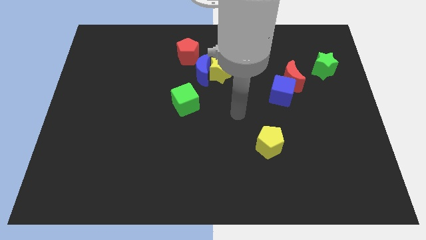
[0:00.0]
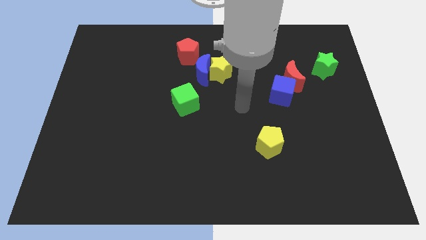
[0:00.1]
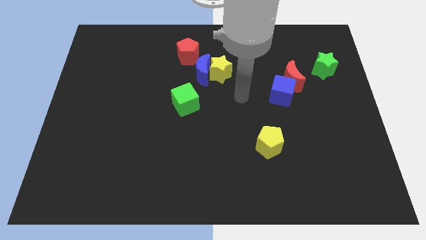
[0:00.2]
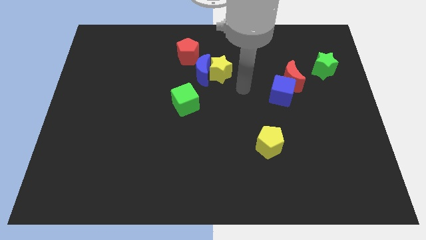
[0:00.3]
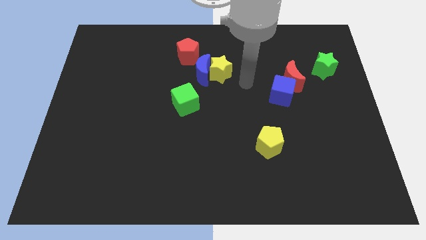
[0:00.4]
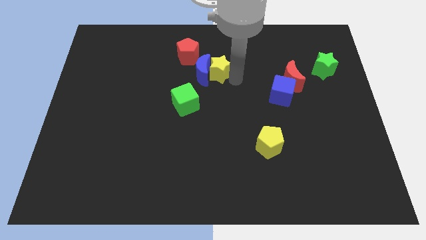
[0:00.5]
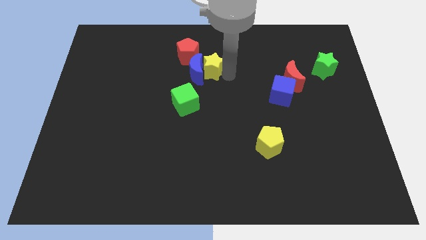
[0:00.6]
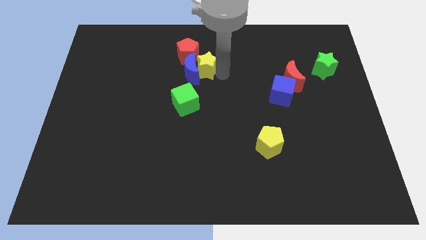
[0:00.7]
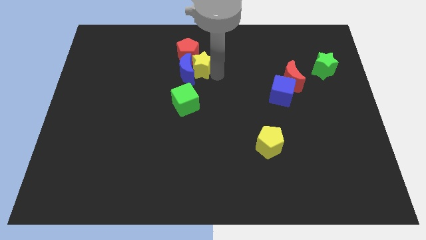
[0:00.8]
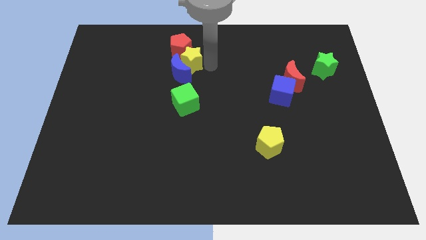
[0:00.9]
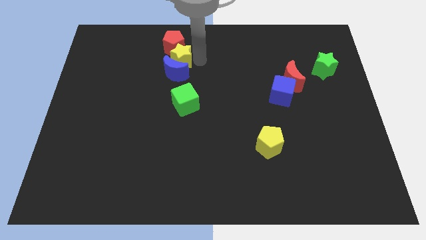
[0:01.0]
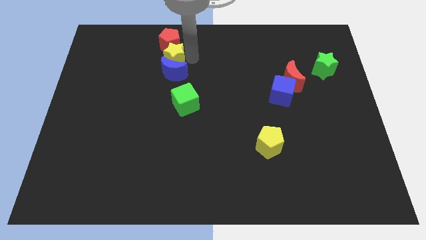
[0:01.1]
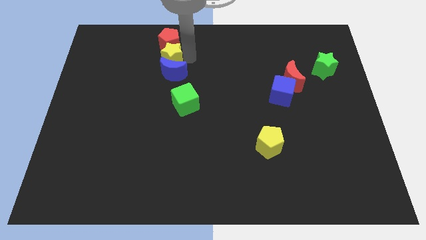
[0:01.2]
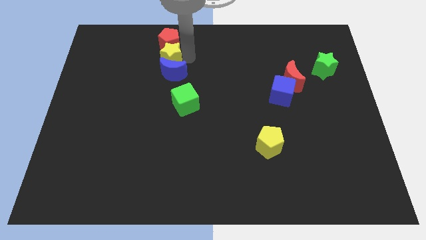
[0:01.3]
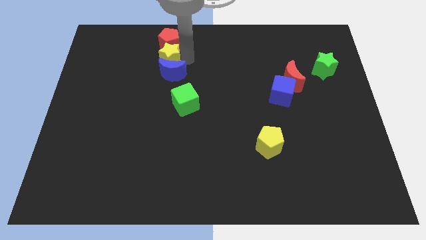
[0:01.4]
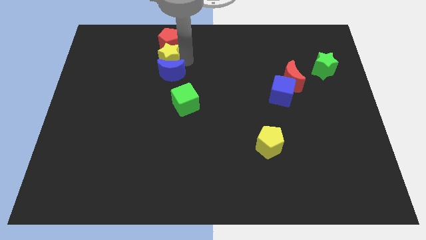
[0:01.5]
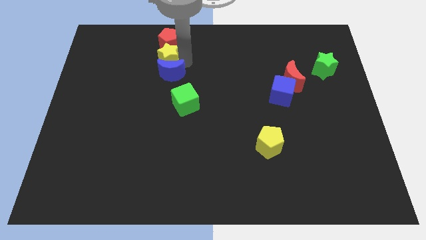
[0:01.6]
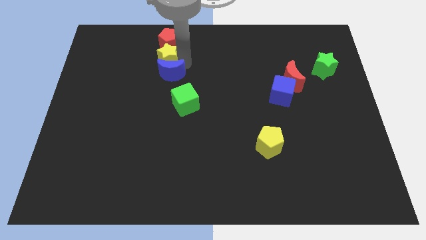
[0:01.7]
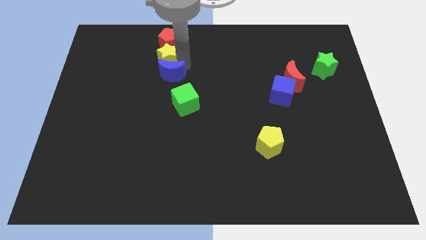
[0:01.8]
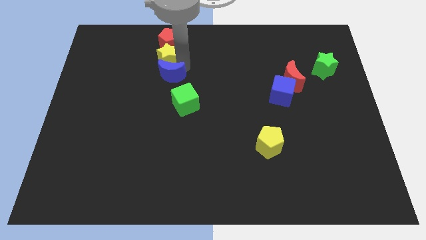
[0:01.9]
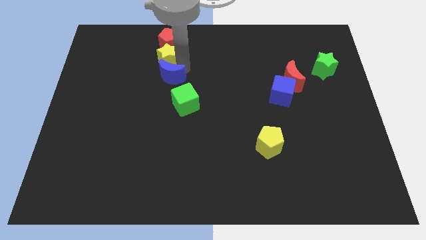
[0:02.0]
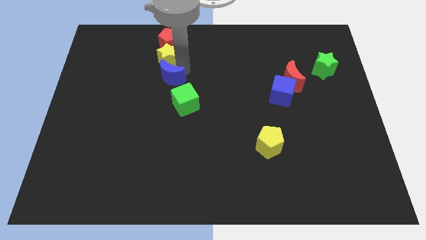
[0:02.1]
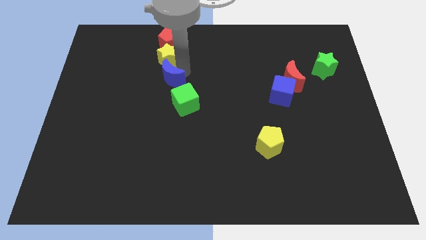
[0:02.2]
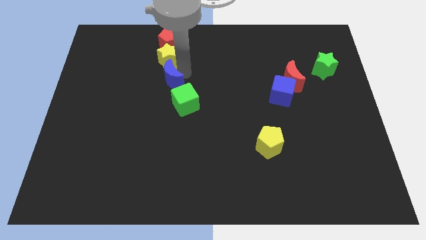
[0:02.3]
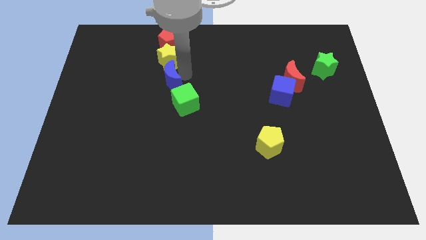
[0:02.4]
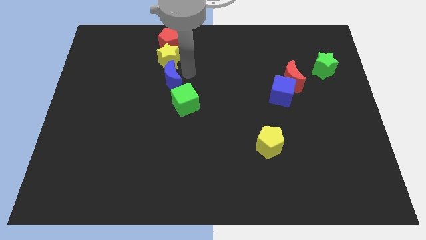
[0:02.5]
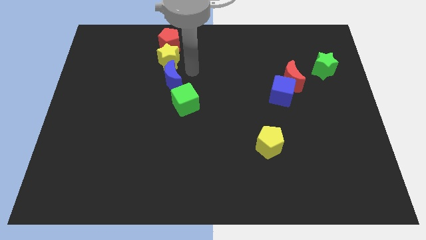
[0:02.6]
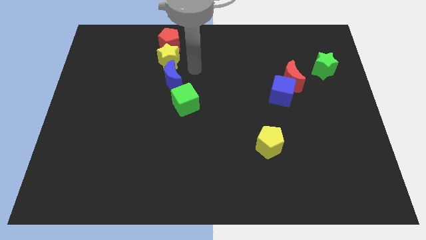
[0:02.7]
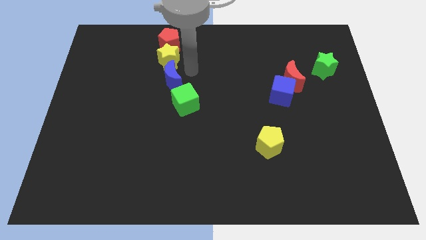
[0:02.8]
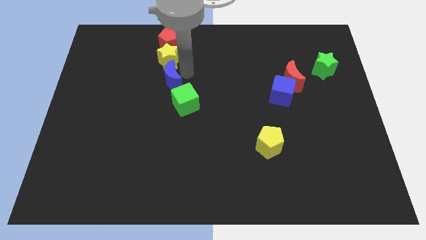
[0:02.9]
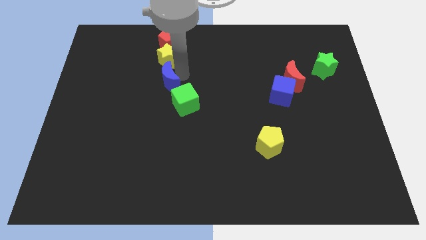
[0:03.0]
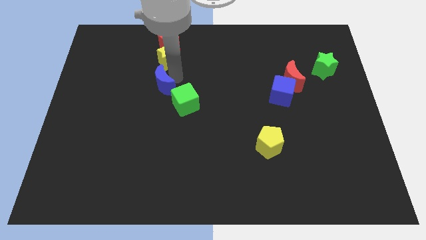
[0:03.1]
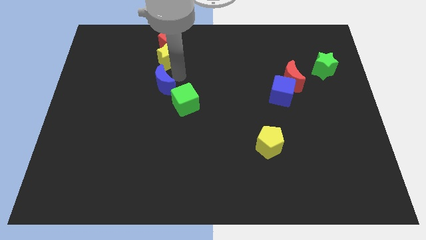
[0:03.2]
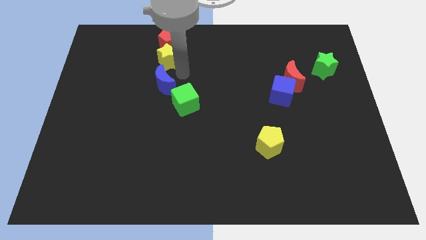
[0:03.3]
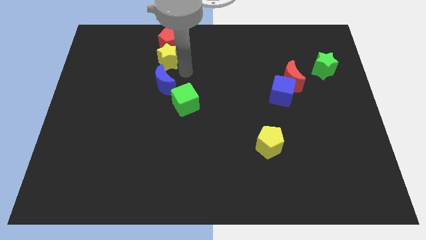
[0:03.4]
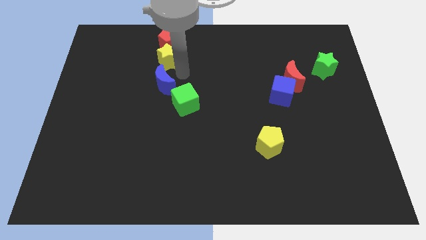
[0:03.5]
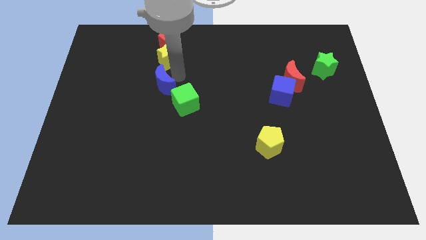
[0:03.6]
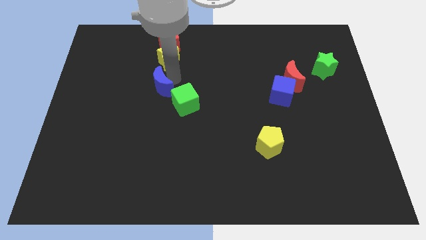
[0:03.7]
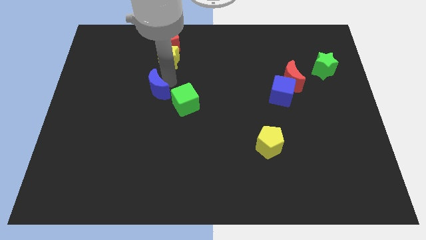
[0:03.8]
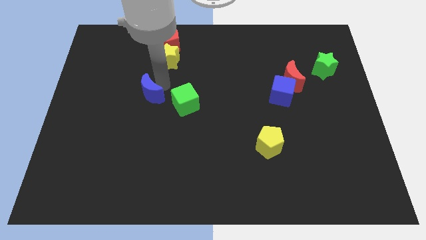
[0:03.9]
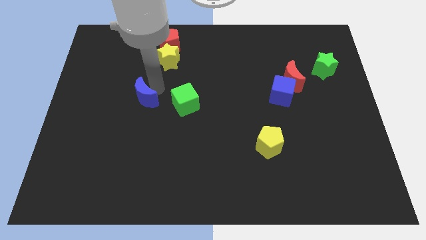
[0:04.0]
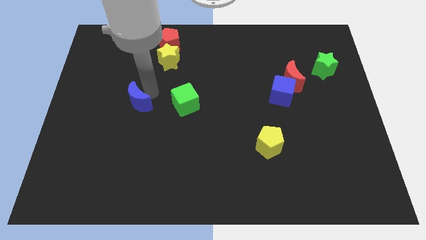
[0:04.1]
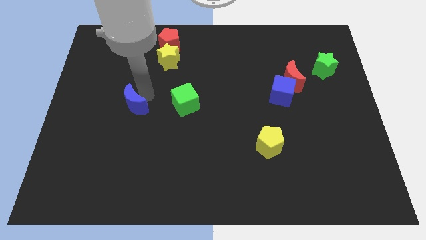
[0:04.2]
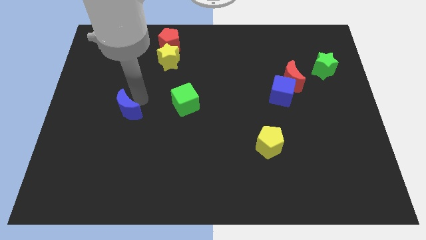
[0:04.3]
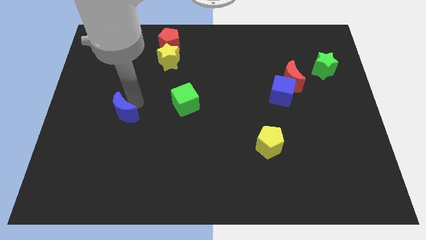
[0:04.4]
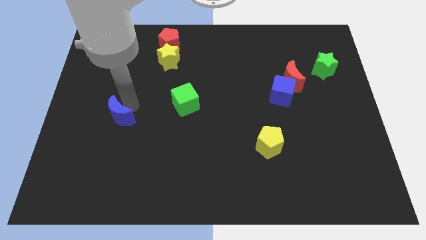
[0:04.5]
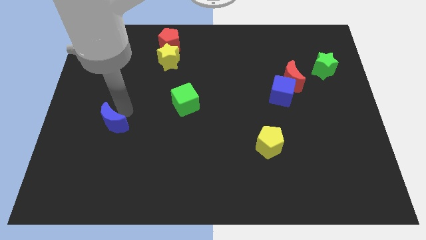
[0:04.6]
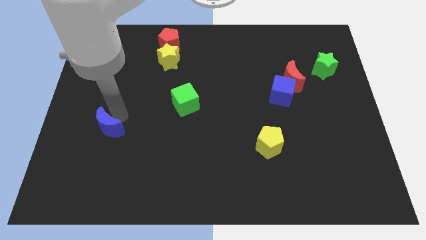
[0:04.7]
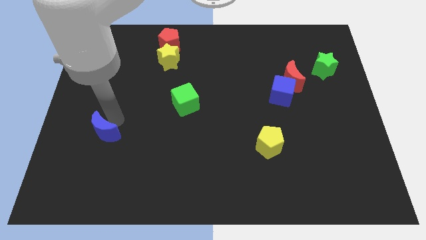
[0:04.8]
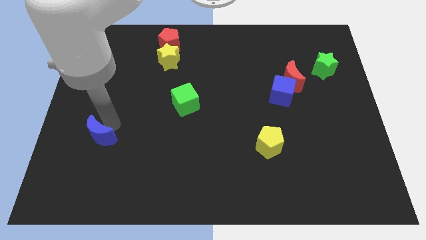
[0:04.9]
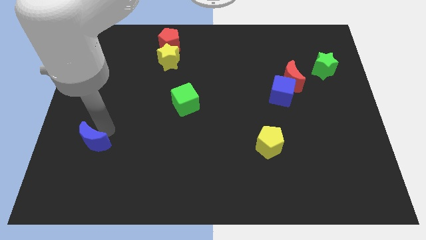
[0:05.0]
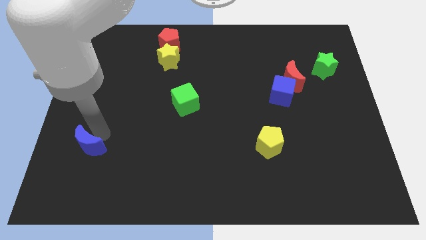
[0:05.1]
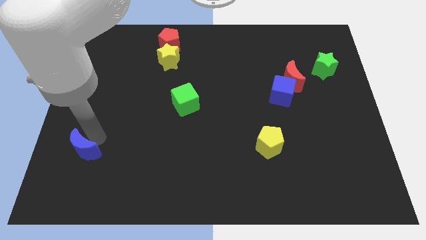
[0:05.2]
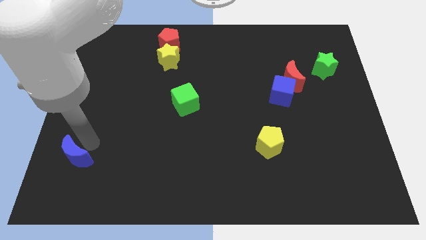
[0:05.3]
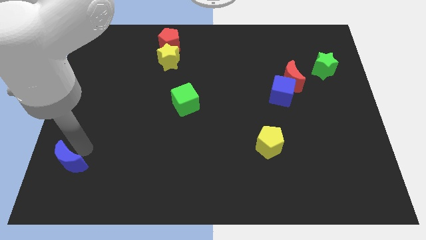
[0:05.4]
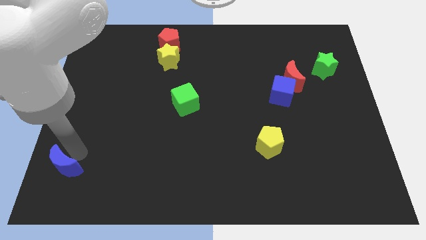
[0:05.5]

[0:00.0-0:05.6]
move the blue moon to the bottom left corner
